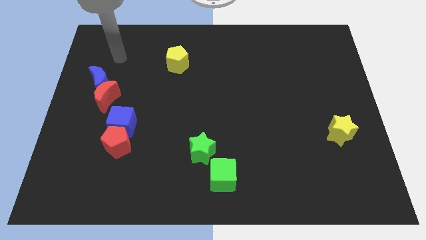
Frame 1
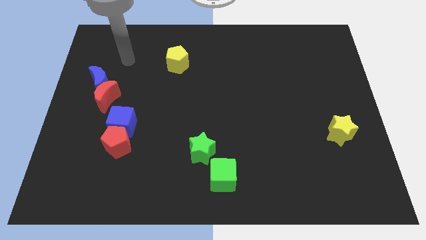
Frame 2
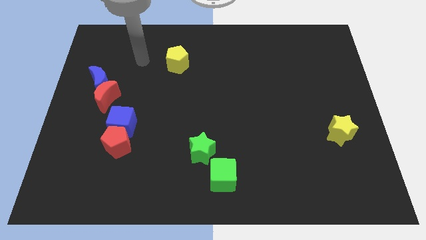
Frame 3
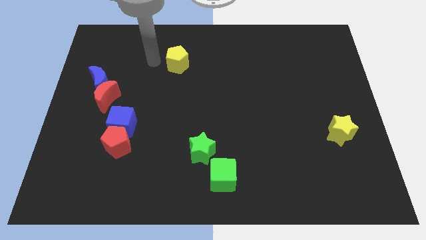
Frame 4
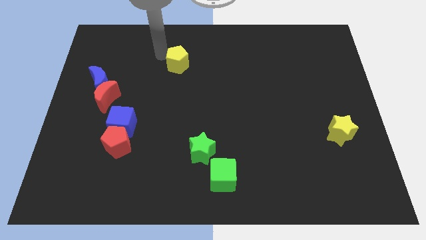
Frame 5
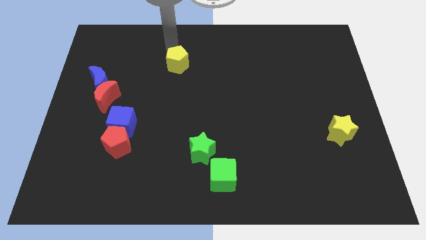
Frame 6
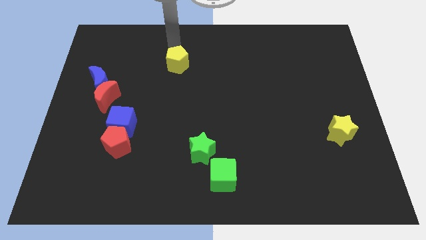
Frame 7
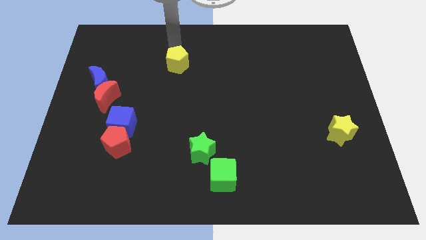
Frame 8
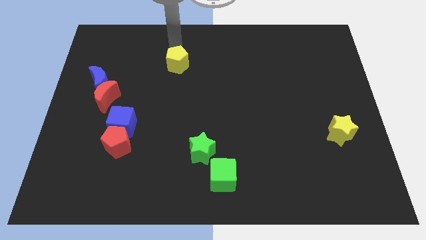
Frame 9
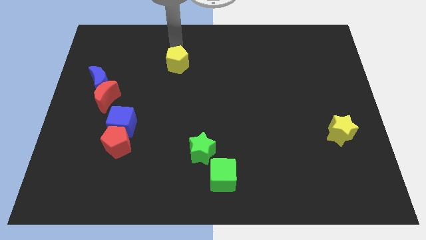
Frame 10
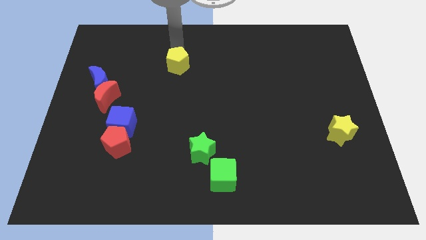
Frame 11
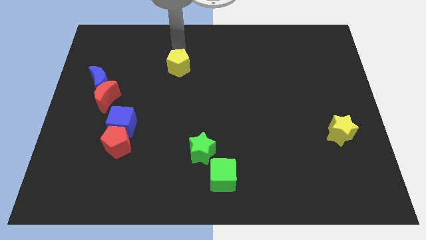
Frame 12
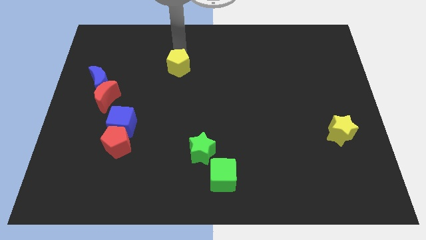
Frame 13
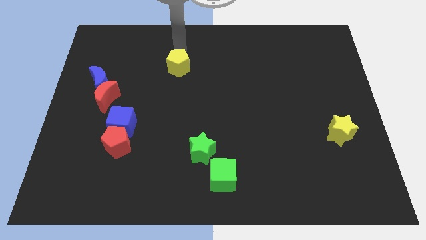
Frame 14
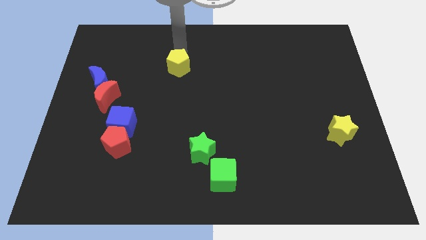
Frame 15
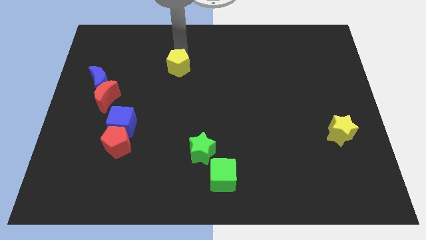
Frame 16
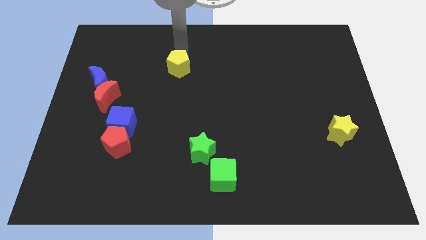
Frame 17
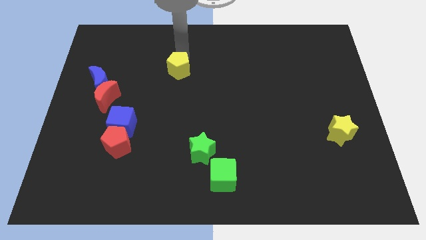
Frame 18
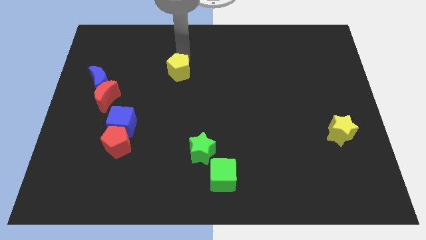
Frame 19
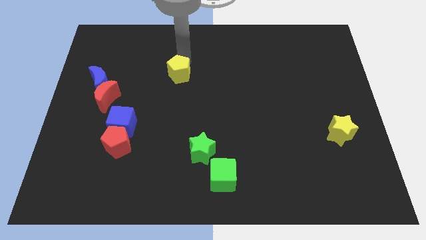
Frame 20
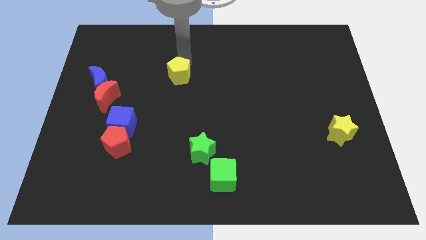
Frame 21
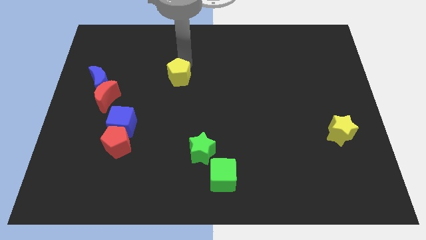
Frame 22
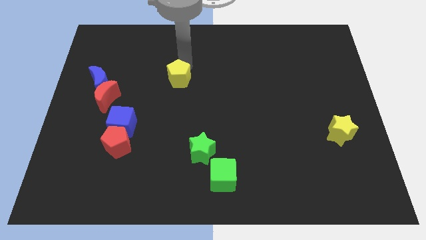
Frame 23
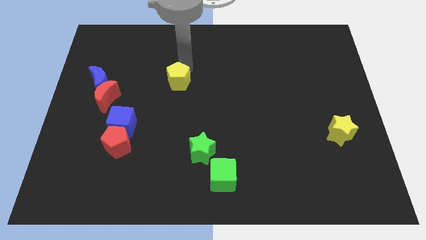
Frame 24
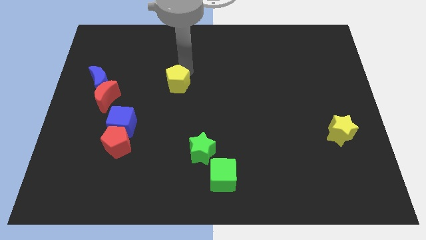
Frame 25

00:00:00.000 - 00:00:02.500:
slide the yellow pentagon downwards a little bit

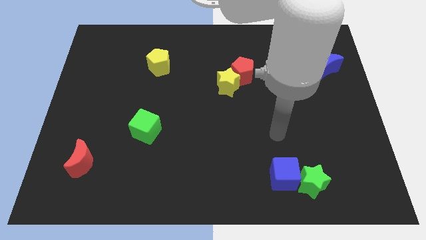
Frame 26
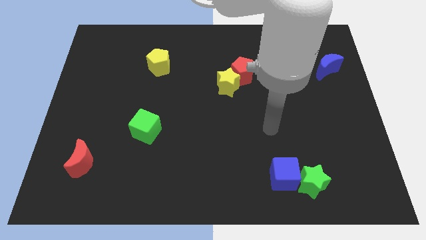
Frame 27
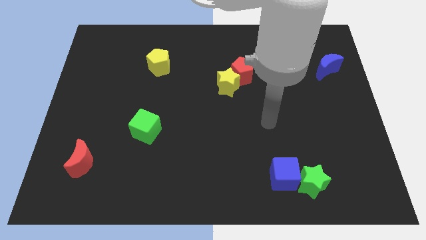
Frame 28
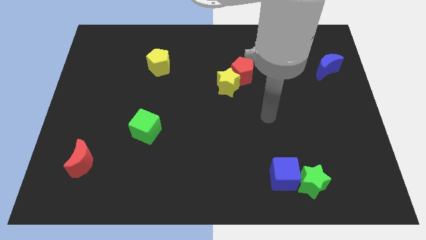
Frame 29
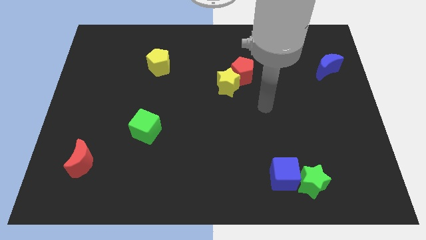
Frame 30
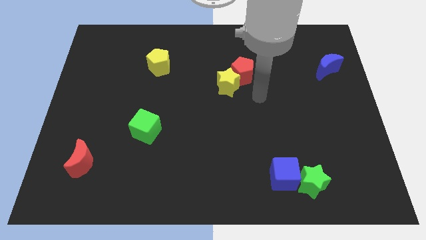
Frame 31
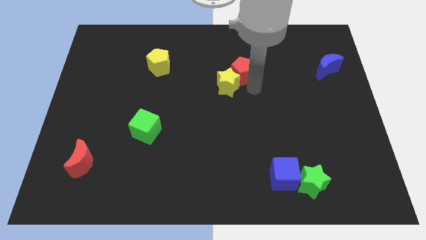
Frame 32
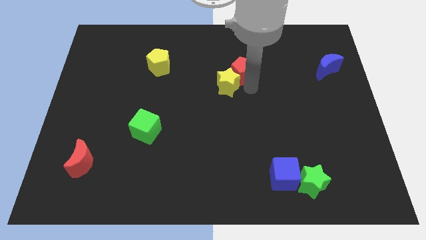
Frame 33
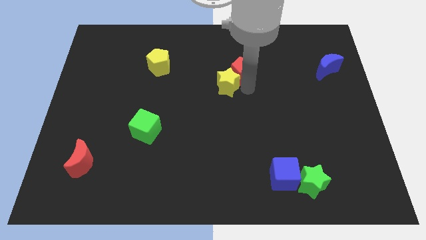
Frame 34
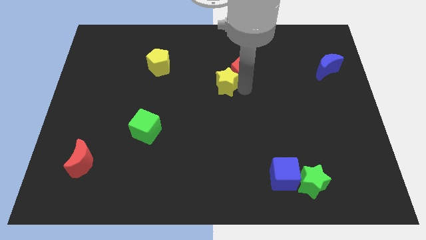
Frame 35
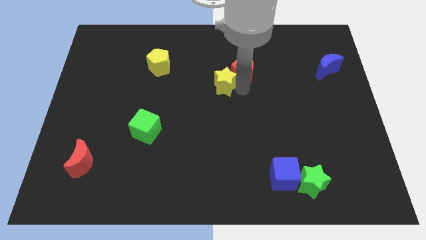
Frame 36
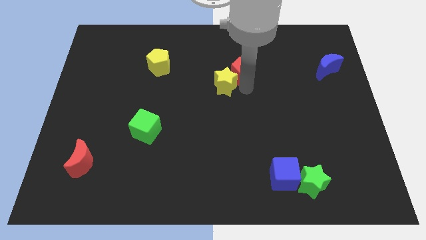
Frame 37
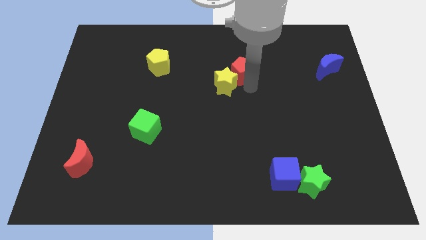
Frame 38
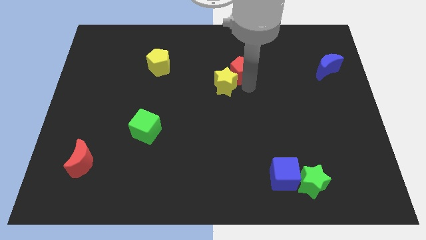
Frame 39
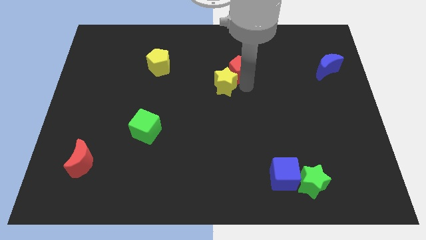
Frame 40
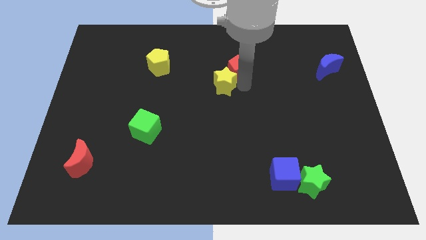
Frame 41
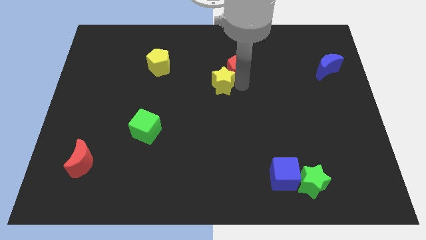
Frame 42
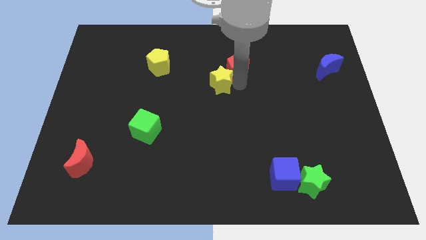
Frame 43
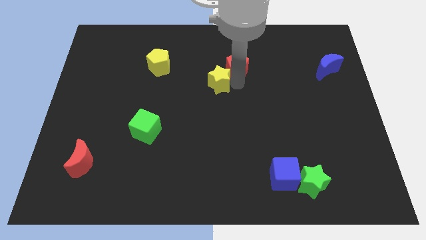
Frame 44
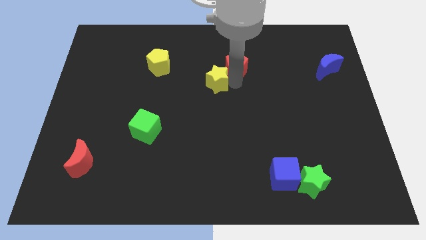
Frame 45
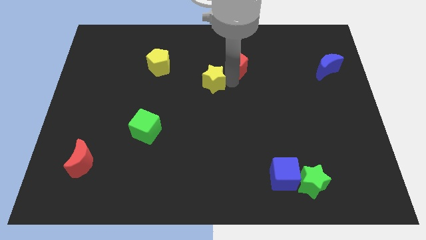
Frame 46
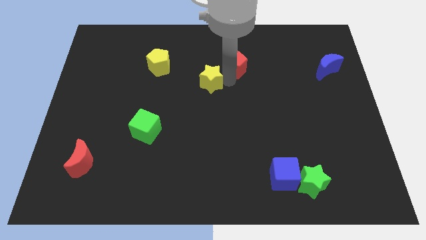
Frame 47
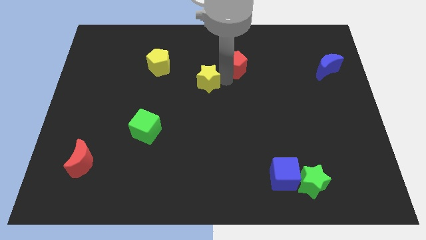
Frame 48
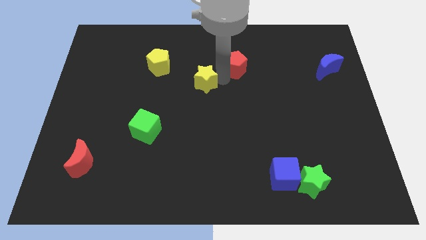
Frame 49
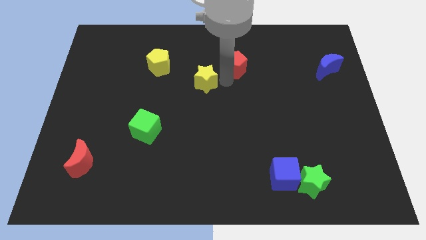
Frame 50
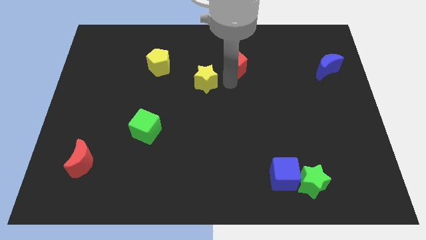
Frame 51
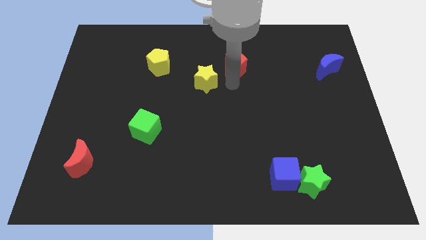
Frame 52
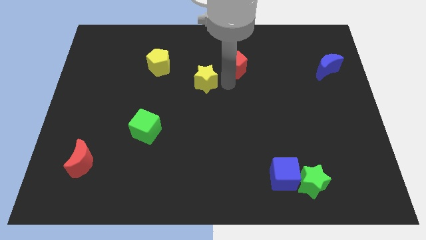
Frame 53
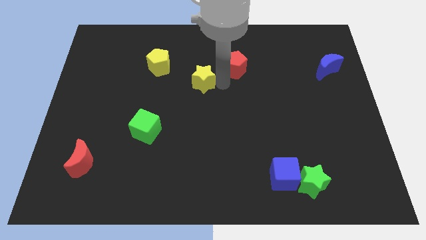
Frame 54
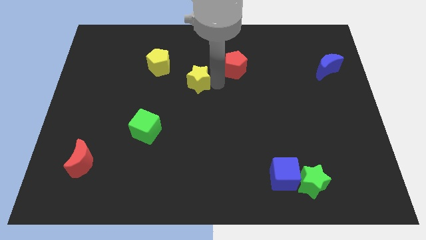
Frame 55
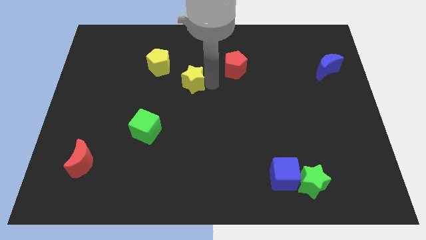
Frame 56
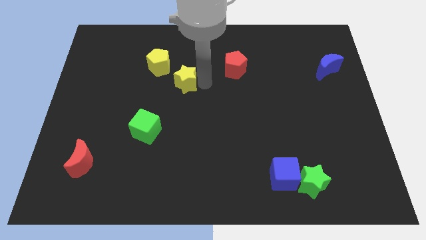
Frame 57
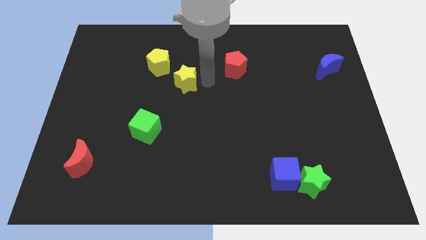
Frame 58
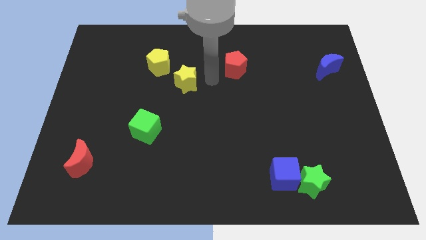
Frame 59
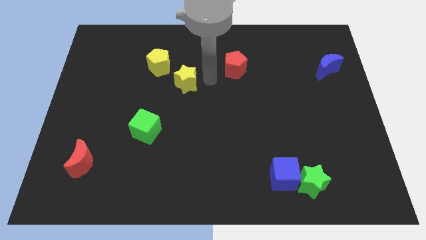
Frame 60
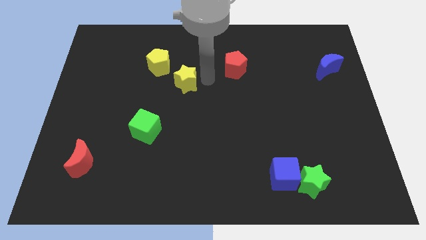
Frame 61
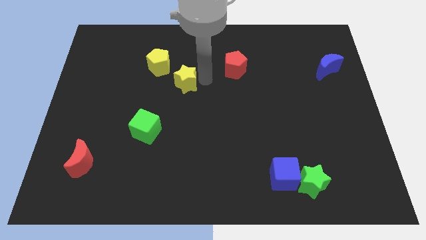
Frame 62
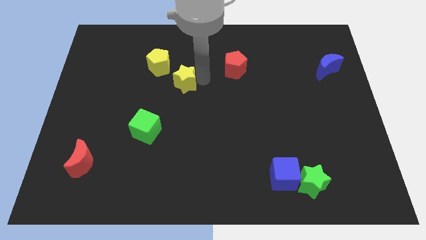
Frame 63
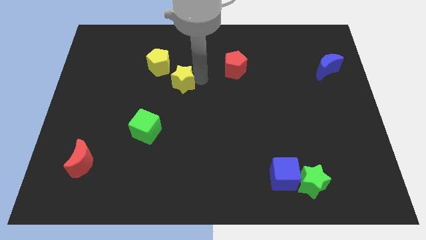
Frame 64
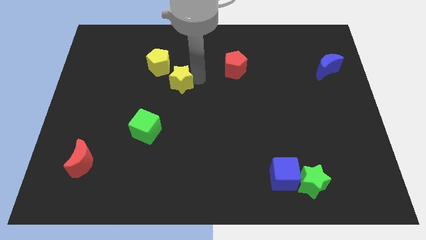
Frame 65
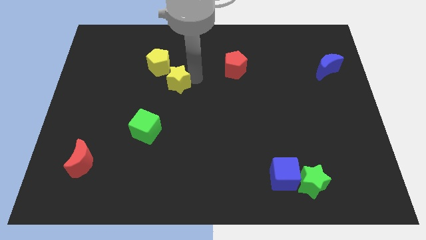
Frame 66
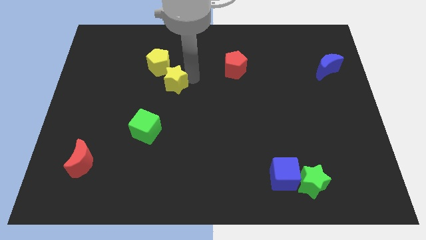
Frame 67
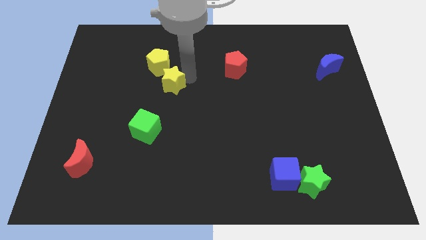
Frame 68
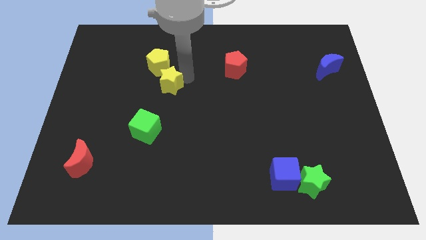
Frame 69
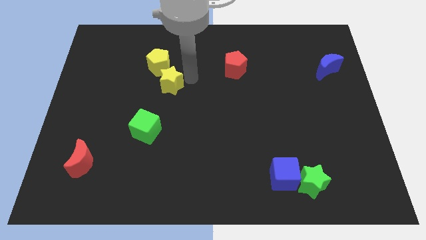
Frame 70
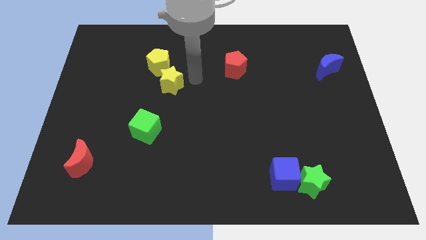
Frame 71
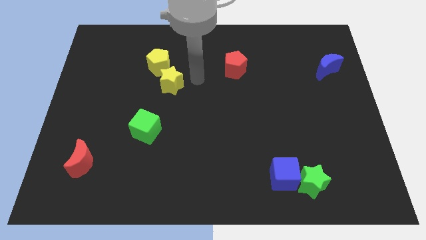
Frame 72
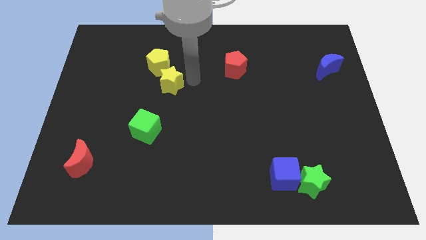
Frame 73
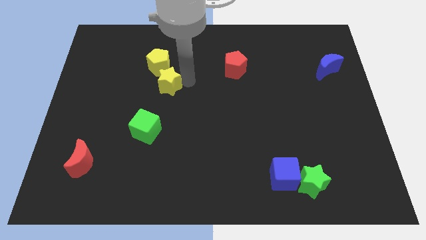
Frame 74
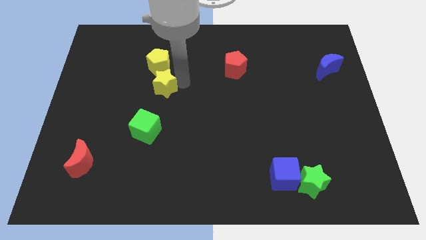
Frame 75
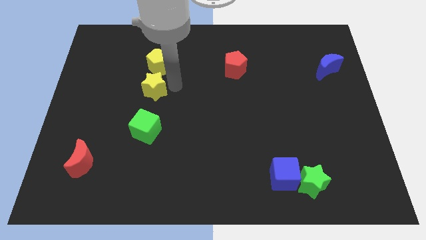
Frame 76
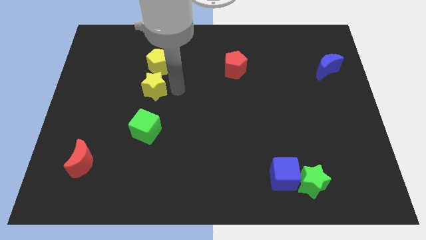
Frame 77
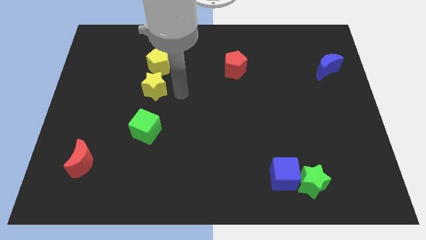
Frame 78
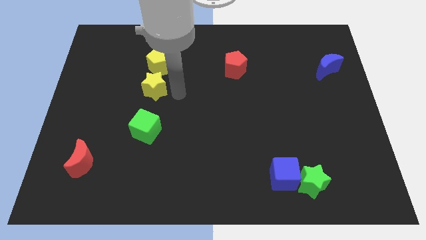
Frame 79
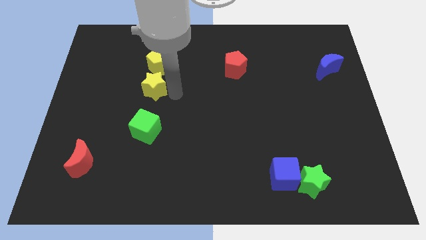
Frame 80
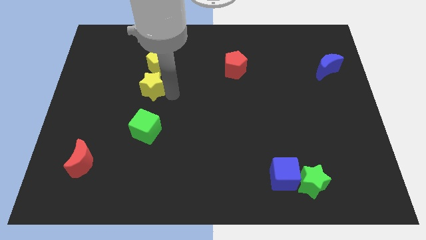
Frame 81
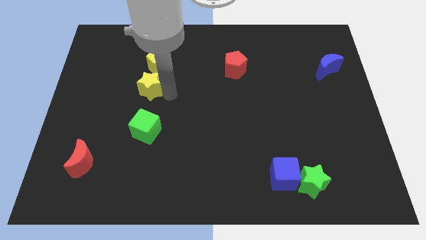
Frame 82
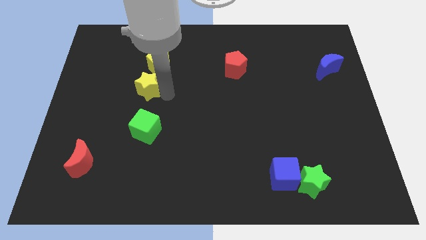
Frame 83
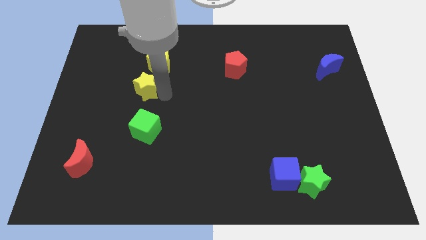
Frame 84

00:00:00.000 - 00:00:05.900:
slide the yellow star left
